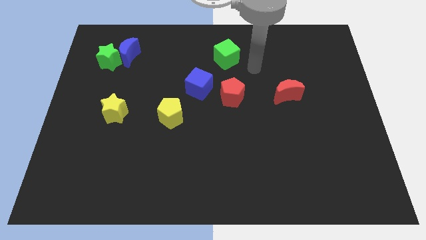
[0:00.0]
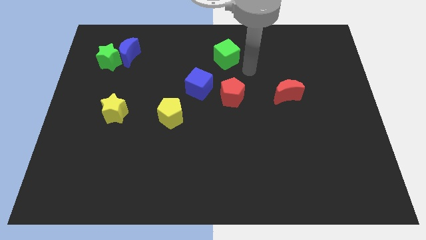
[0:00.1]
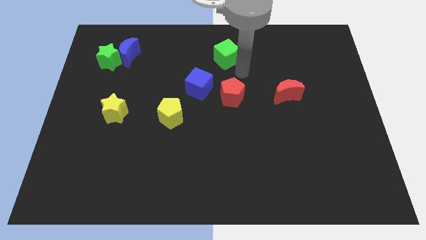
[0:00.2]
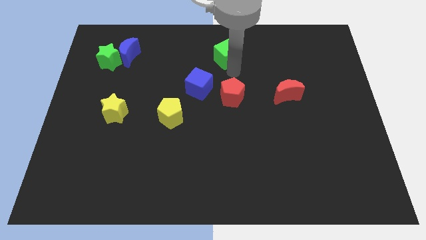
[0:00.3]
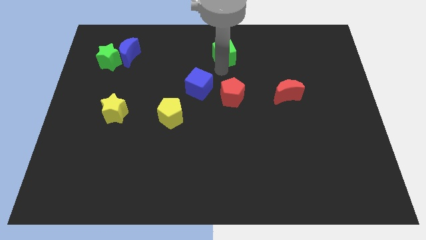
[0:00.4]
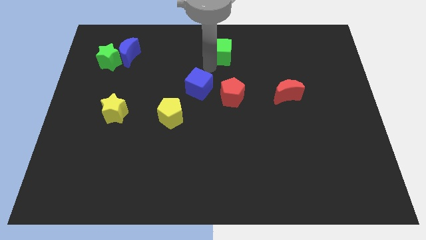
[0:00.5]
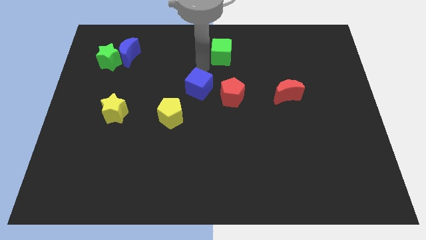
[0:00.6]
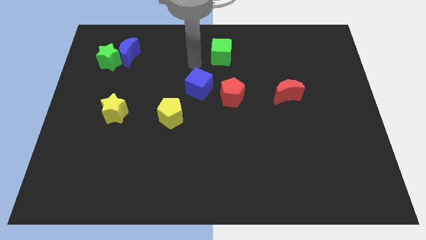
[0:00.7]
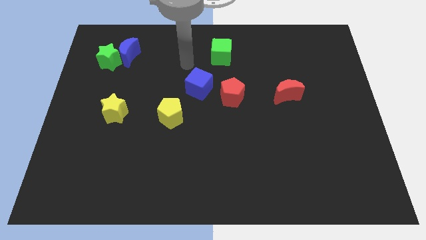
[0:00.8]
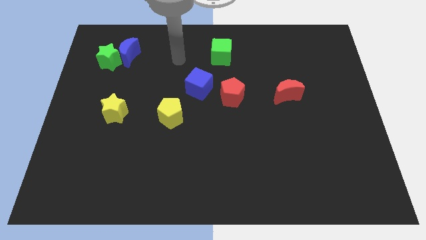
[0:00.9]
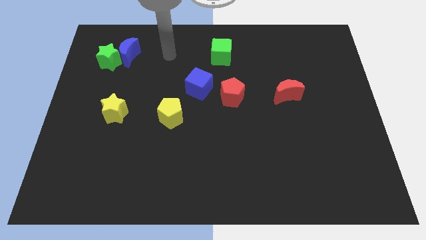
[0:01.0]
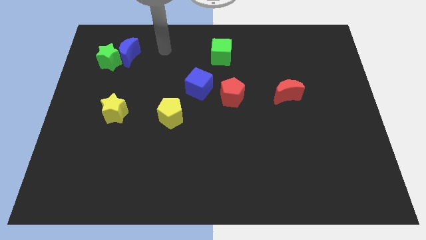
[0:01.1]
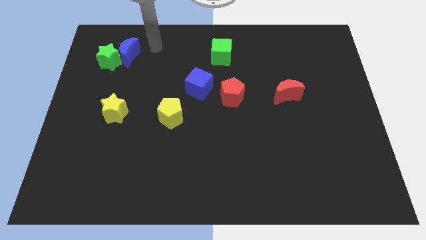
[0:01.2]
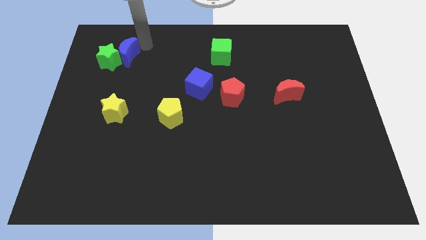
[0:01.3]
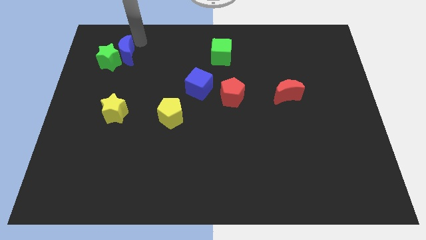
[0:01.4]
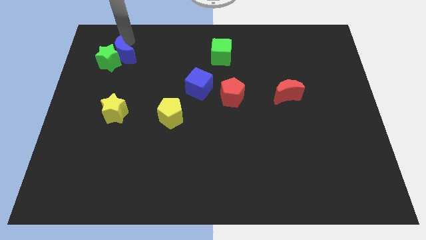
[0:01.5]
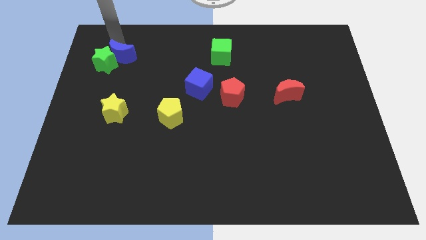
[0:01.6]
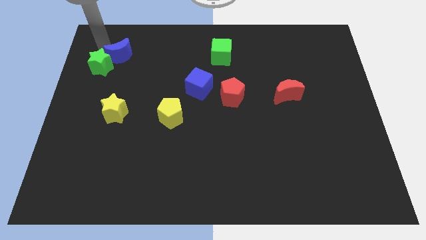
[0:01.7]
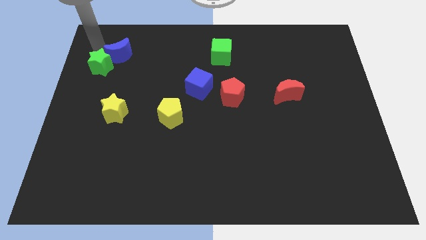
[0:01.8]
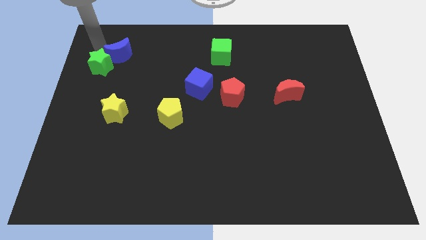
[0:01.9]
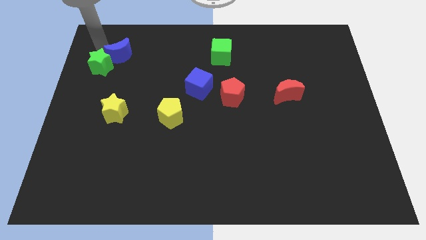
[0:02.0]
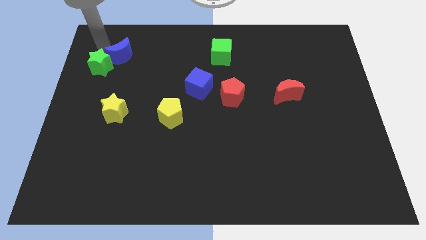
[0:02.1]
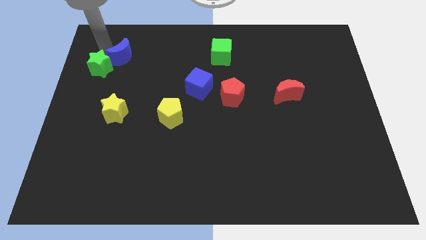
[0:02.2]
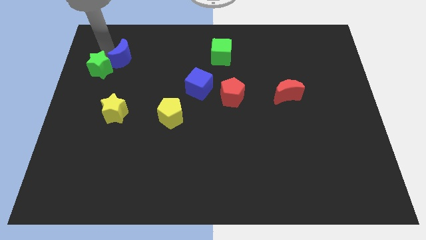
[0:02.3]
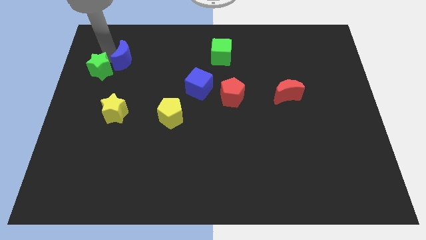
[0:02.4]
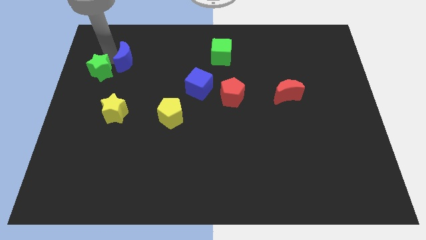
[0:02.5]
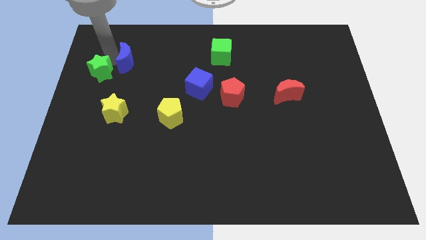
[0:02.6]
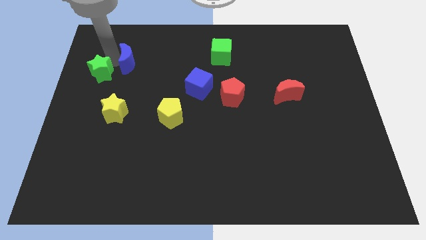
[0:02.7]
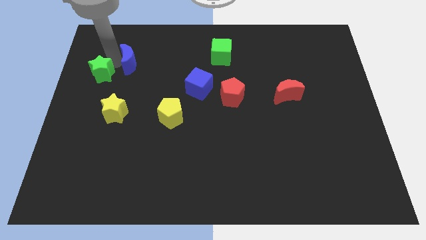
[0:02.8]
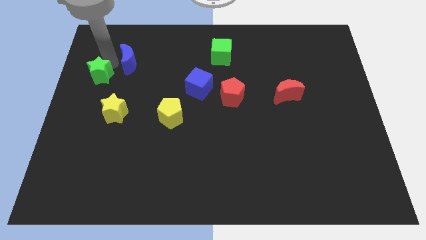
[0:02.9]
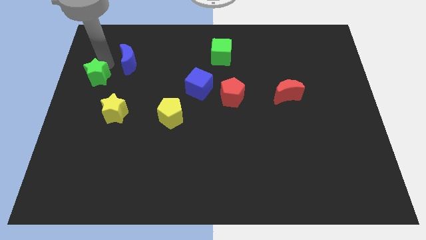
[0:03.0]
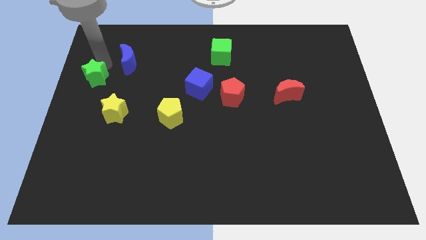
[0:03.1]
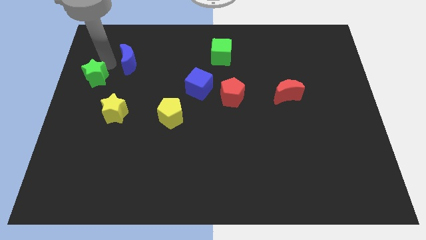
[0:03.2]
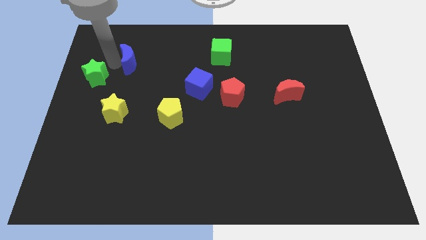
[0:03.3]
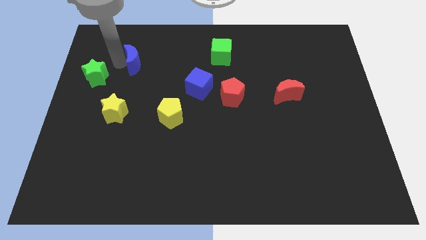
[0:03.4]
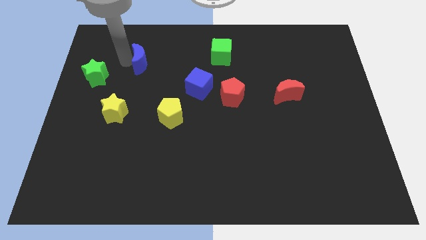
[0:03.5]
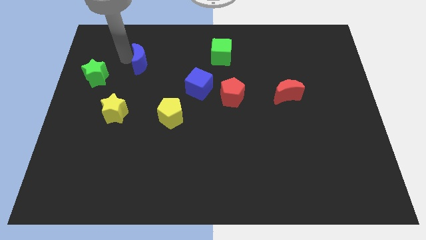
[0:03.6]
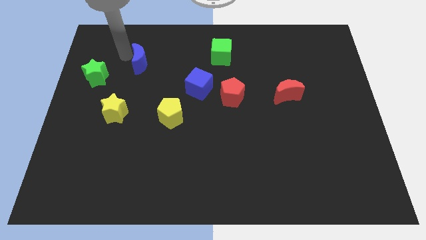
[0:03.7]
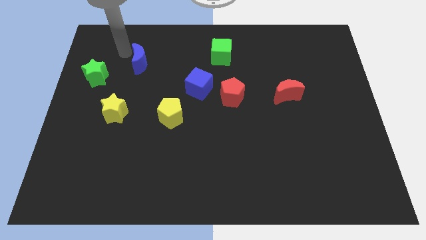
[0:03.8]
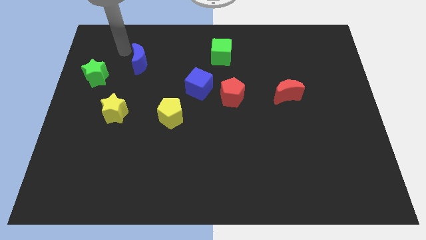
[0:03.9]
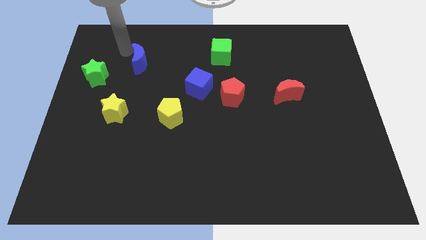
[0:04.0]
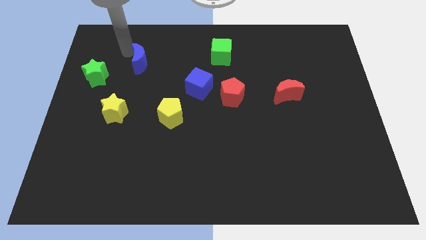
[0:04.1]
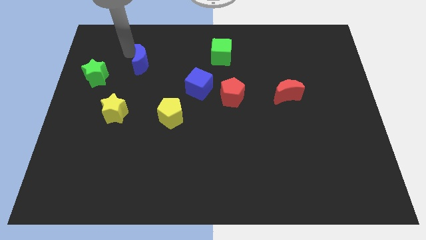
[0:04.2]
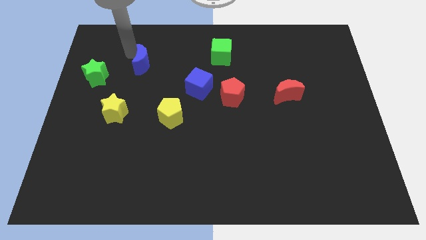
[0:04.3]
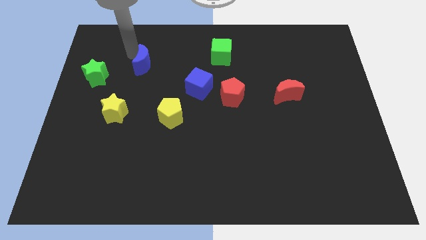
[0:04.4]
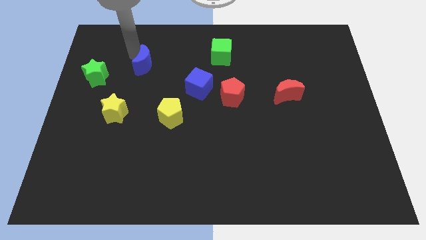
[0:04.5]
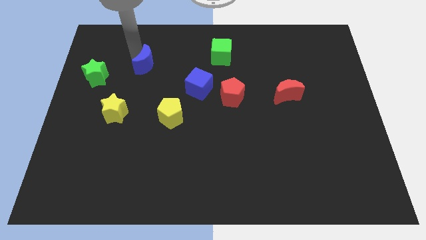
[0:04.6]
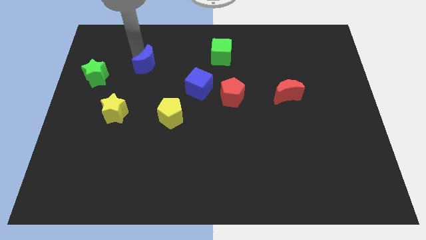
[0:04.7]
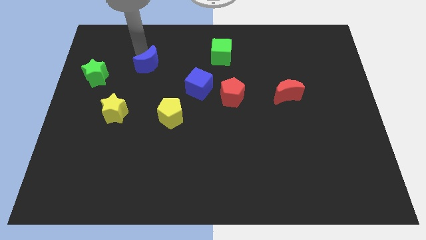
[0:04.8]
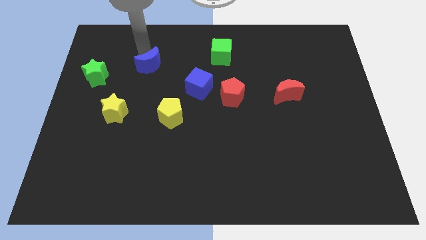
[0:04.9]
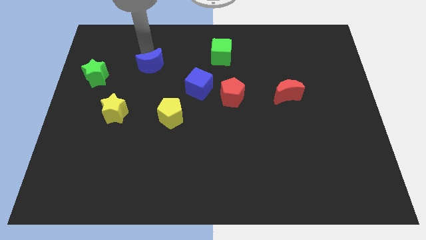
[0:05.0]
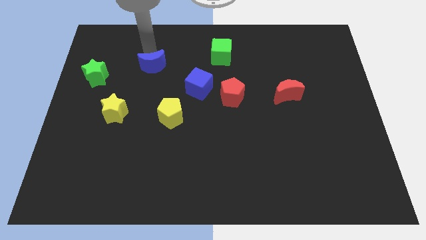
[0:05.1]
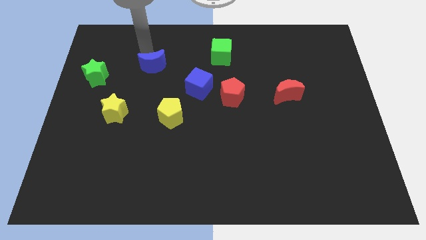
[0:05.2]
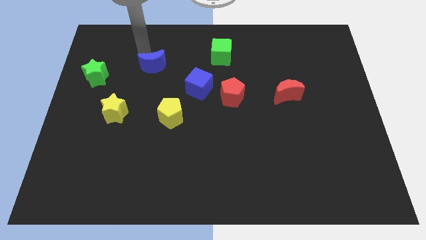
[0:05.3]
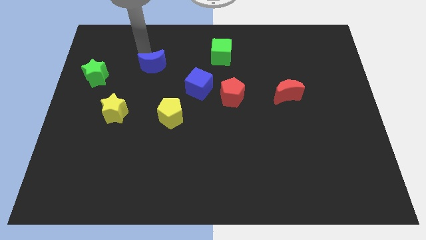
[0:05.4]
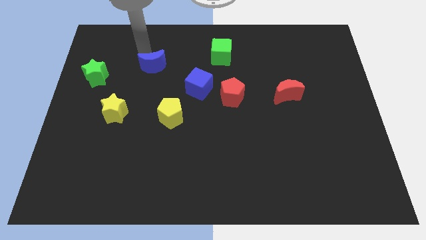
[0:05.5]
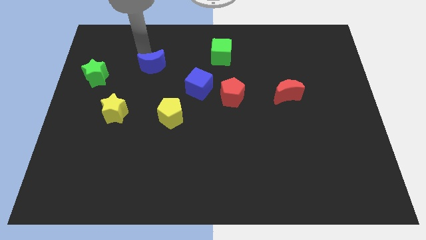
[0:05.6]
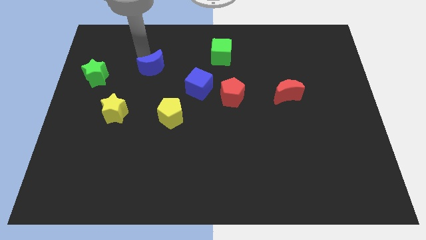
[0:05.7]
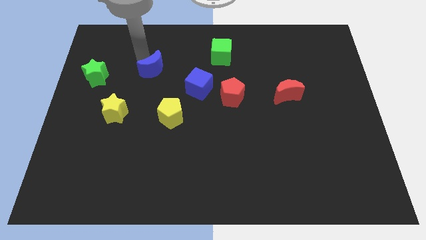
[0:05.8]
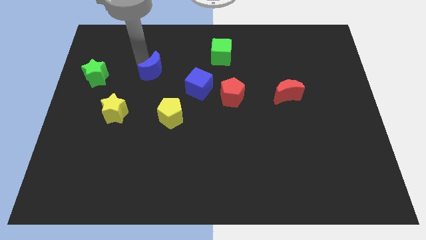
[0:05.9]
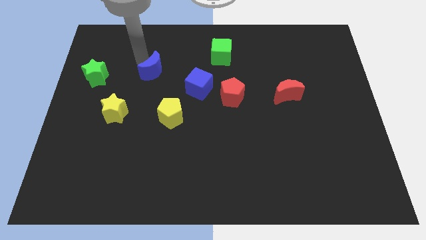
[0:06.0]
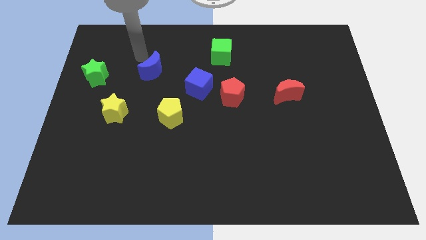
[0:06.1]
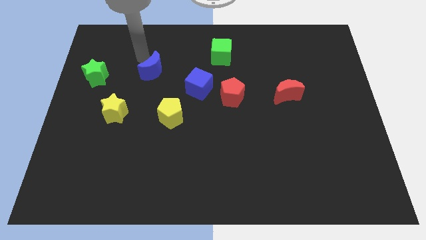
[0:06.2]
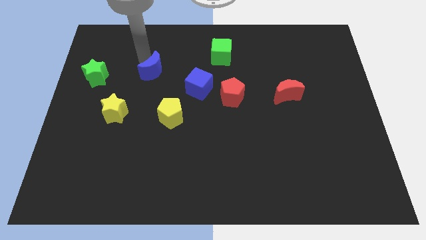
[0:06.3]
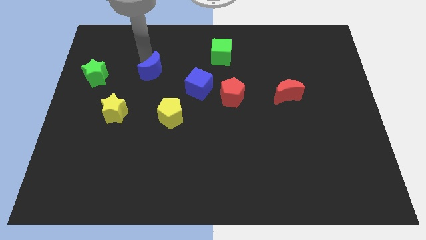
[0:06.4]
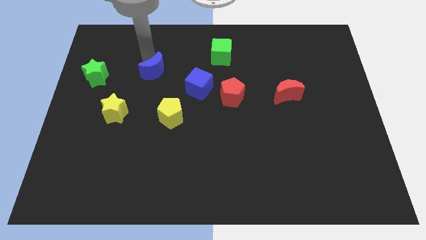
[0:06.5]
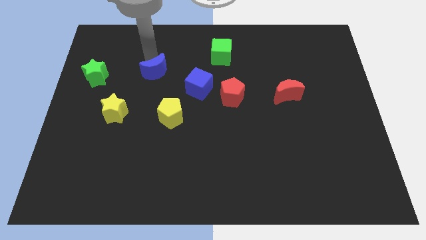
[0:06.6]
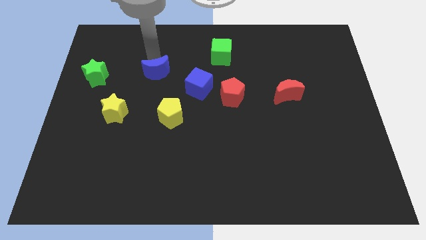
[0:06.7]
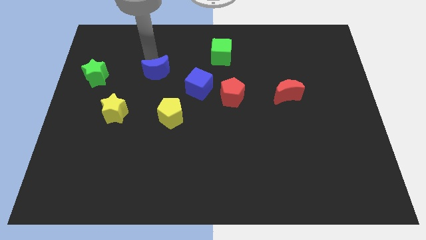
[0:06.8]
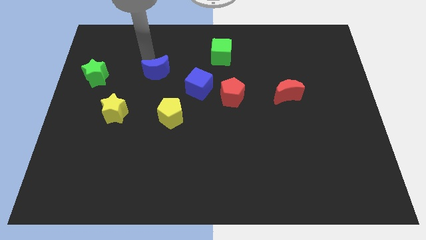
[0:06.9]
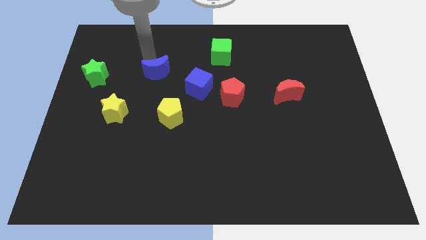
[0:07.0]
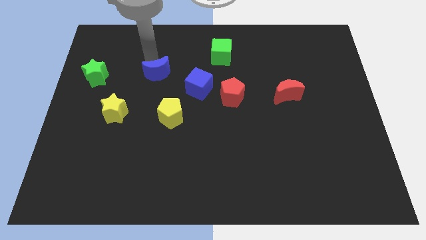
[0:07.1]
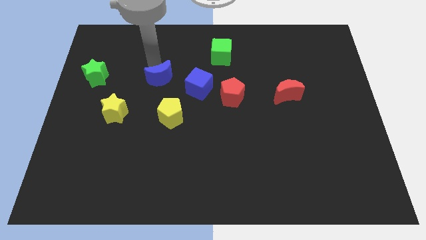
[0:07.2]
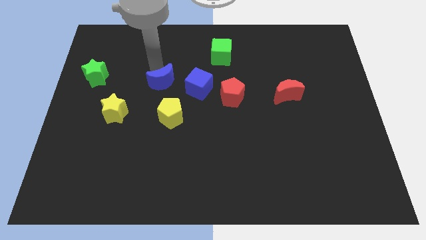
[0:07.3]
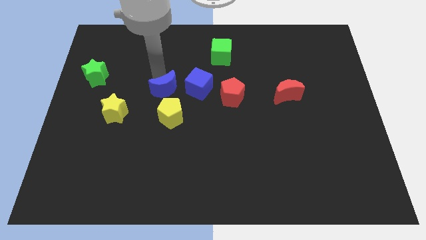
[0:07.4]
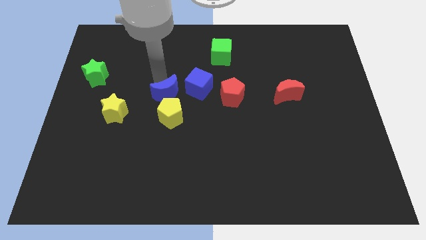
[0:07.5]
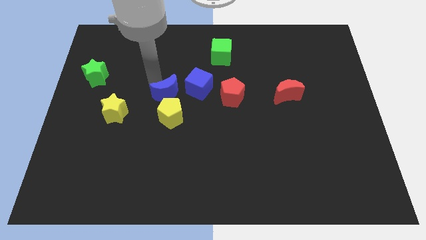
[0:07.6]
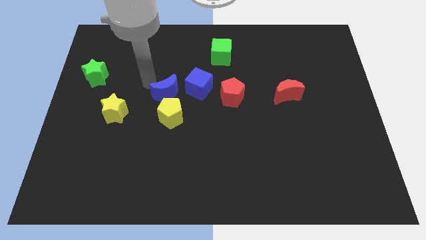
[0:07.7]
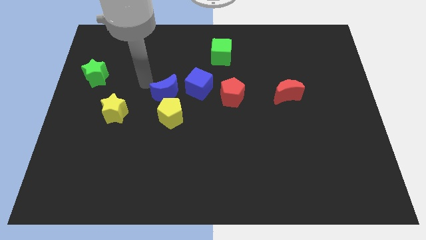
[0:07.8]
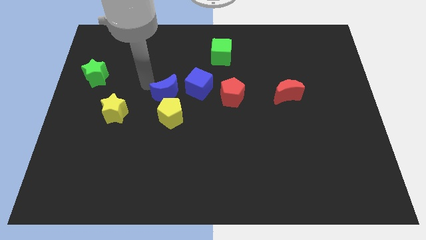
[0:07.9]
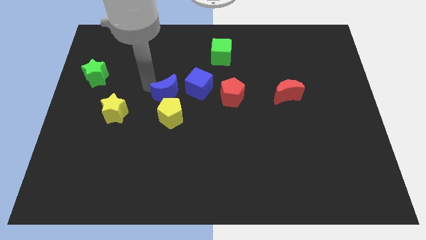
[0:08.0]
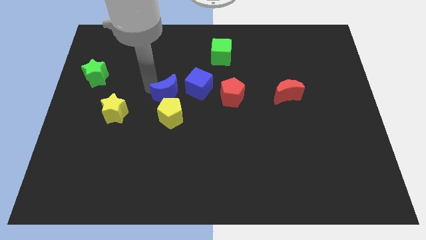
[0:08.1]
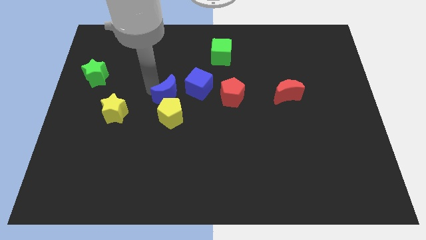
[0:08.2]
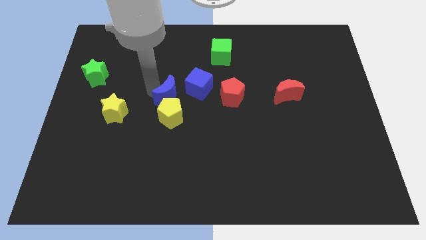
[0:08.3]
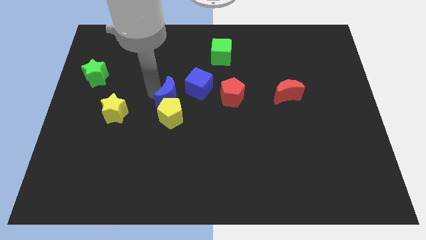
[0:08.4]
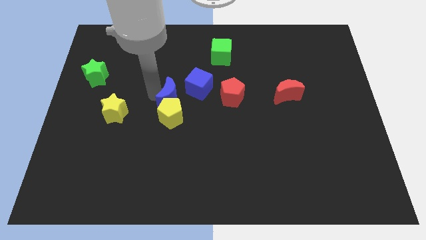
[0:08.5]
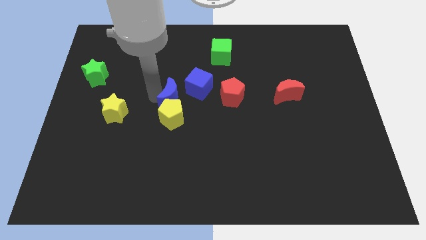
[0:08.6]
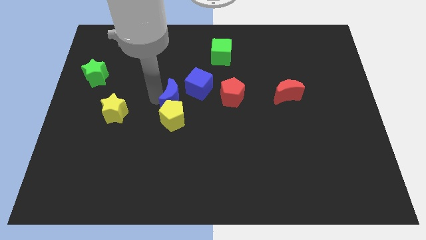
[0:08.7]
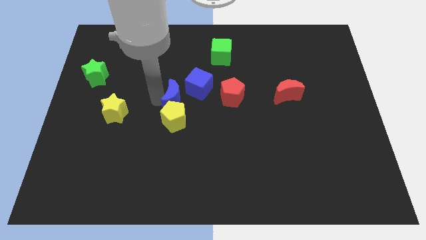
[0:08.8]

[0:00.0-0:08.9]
push the blue moon downwards and to the right diagonally
